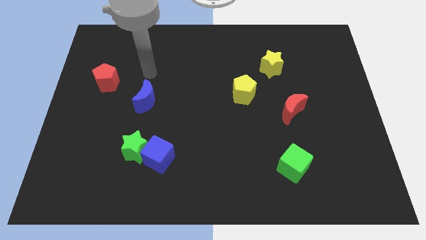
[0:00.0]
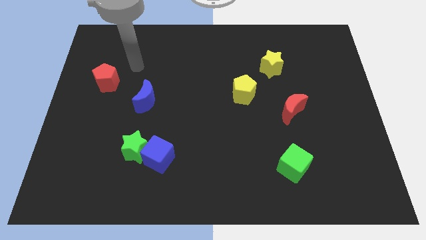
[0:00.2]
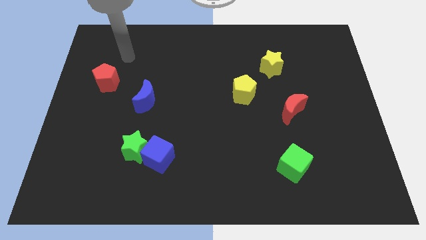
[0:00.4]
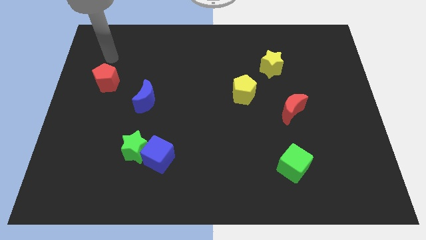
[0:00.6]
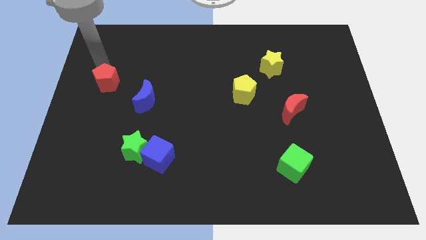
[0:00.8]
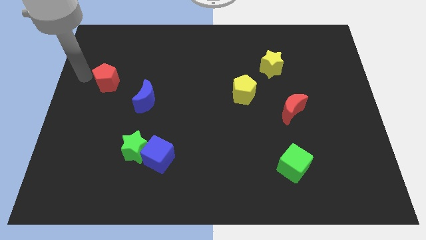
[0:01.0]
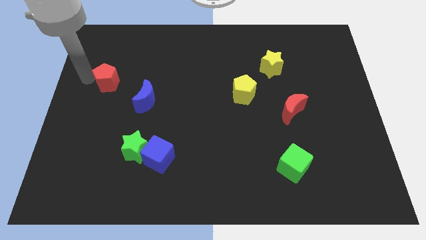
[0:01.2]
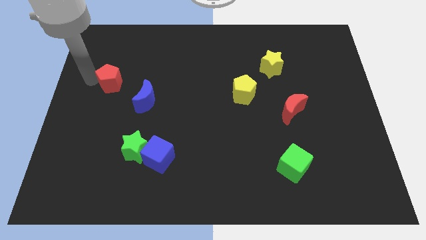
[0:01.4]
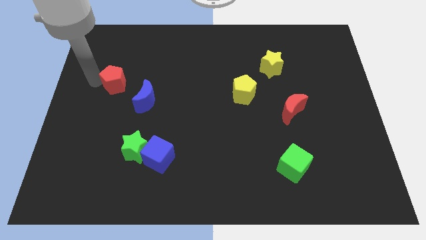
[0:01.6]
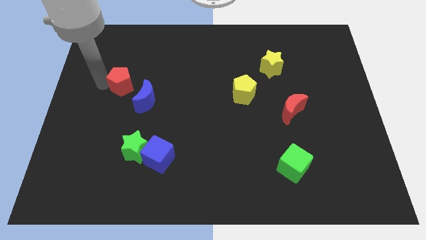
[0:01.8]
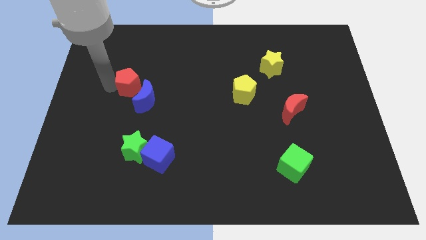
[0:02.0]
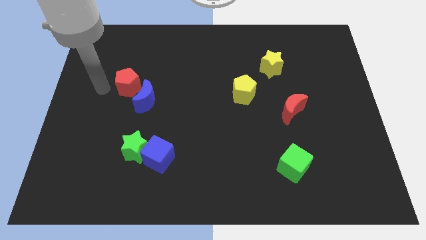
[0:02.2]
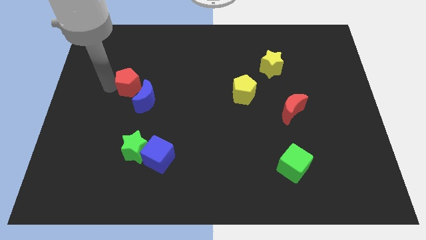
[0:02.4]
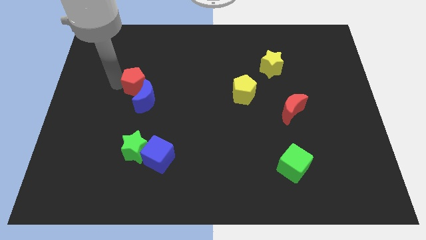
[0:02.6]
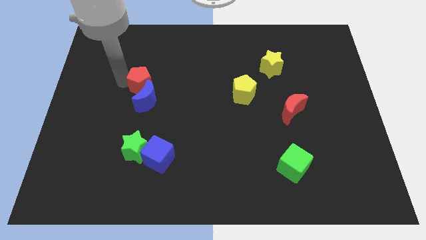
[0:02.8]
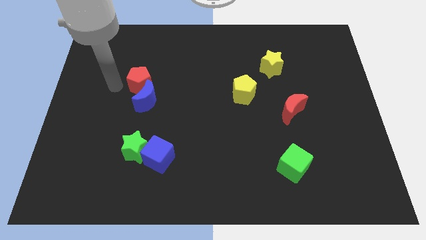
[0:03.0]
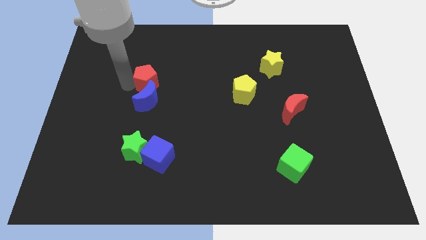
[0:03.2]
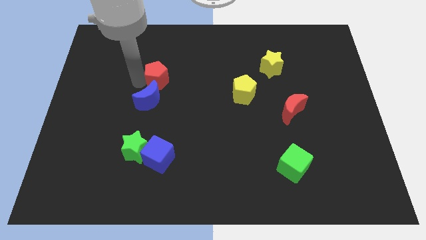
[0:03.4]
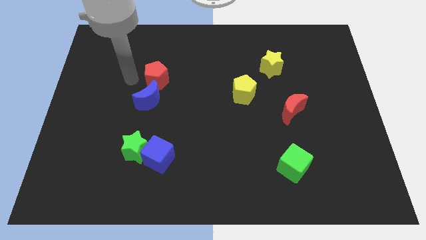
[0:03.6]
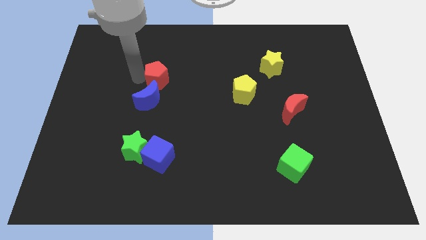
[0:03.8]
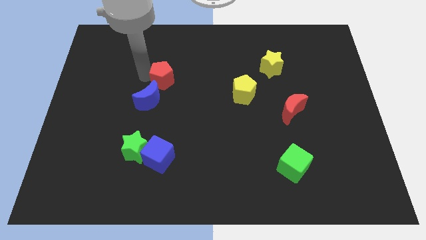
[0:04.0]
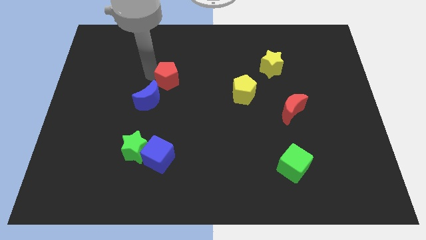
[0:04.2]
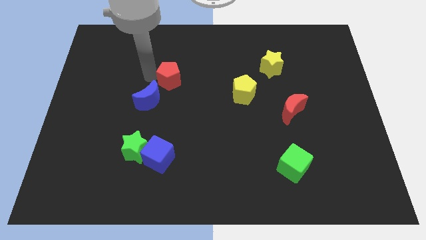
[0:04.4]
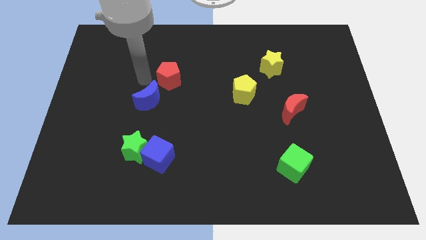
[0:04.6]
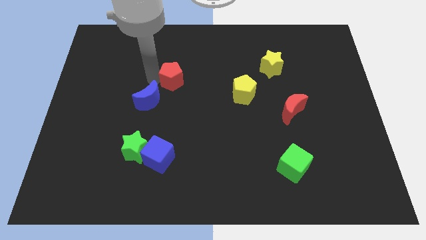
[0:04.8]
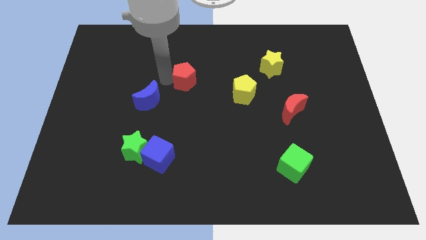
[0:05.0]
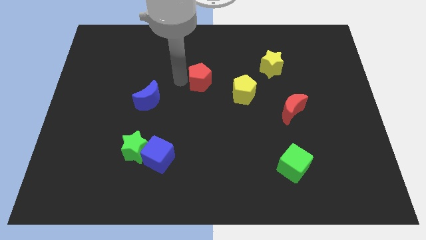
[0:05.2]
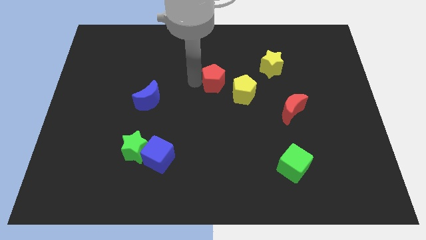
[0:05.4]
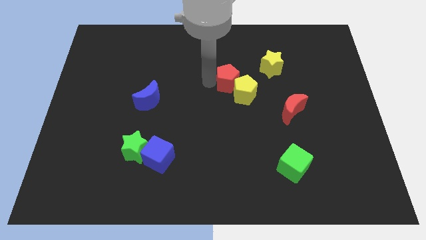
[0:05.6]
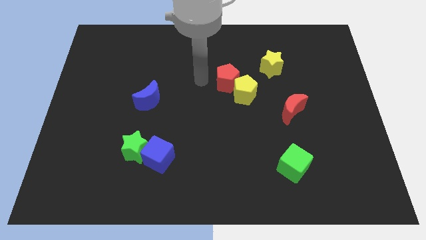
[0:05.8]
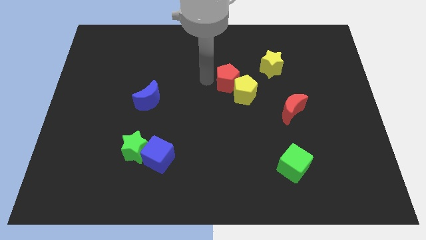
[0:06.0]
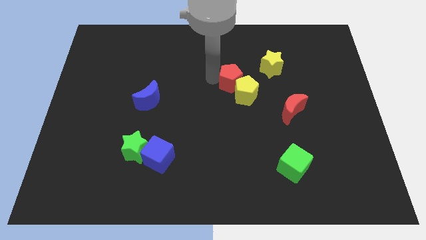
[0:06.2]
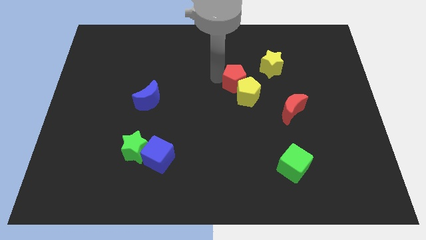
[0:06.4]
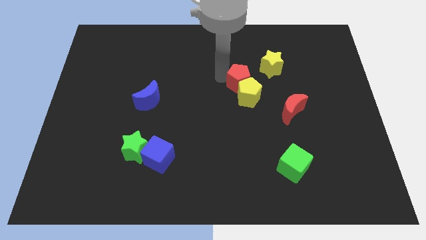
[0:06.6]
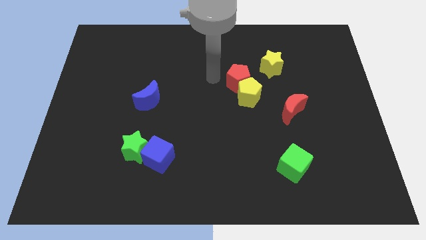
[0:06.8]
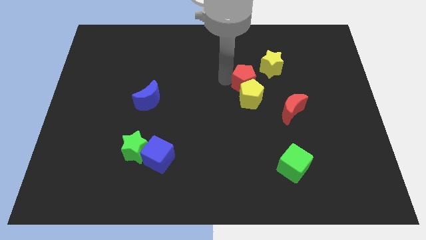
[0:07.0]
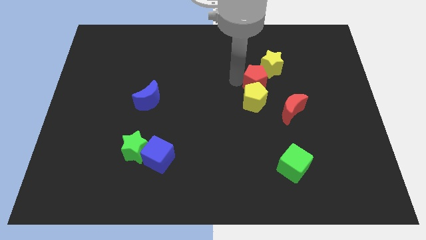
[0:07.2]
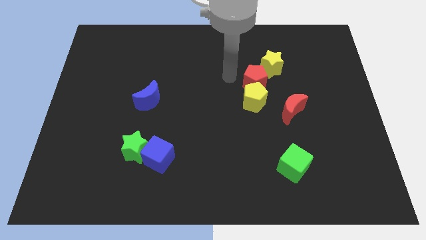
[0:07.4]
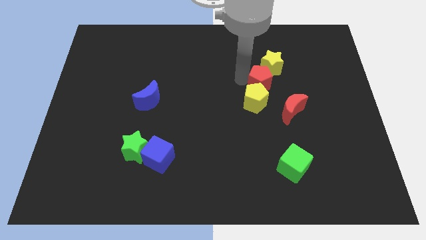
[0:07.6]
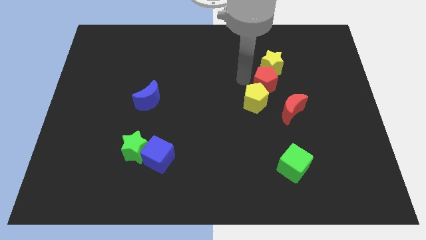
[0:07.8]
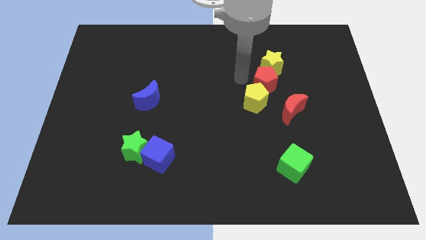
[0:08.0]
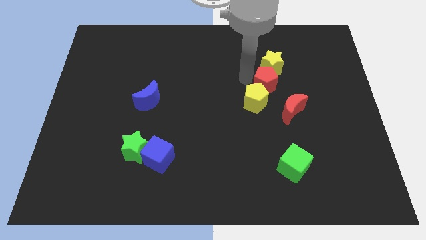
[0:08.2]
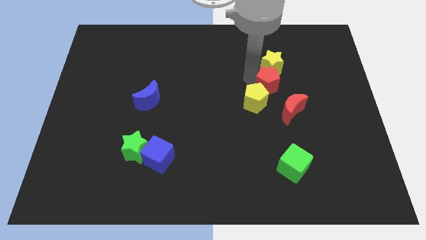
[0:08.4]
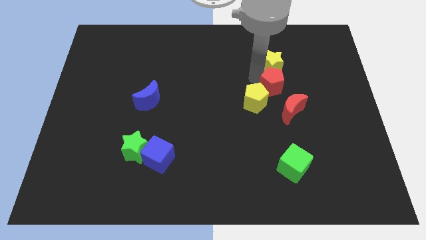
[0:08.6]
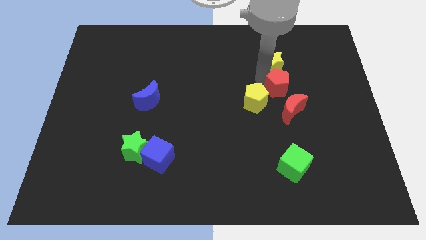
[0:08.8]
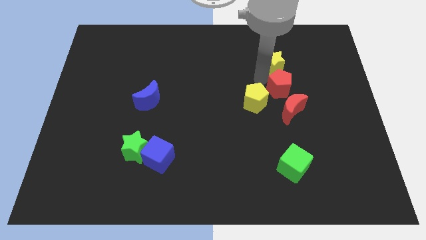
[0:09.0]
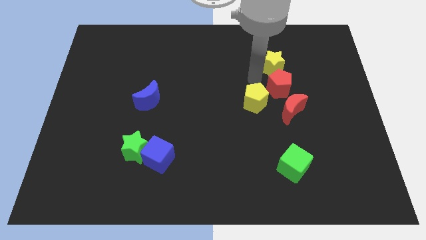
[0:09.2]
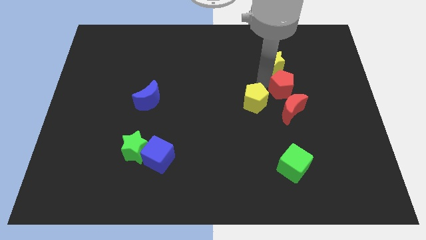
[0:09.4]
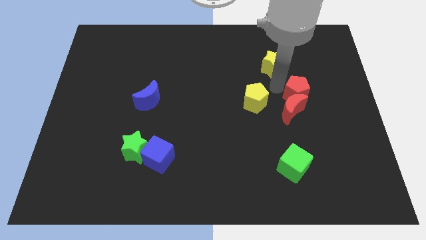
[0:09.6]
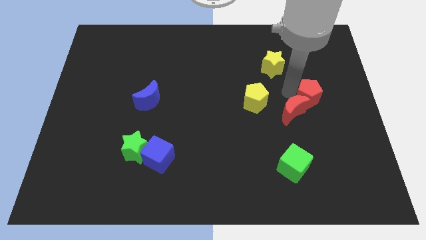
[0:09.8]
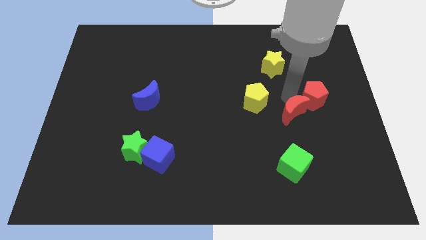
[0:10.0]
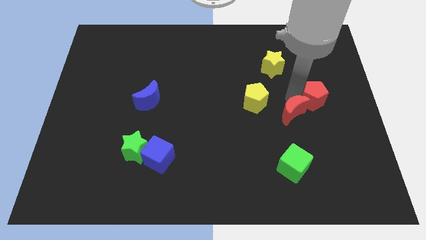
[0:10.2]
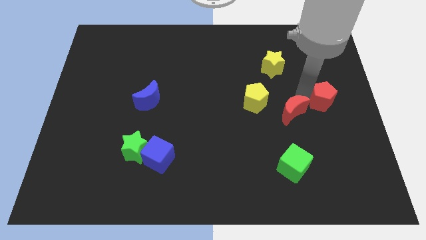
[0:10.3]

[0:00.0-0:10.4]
put the red pentagon to the right side of the board

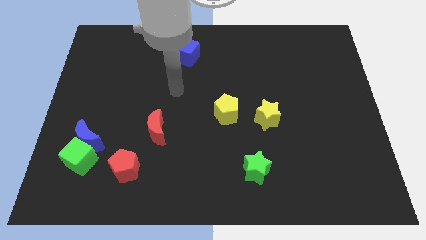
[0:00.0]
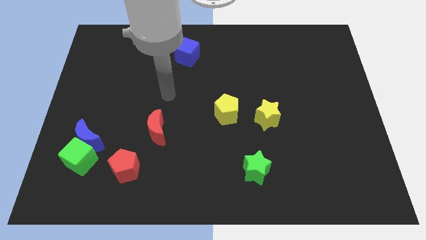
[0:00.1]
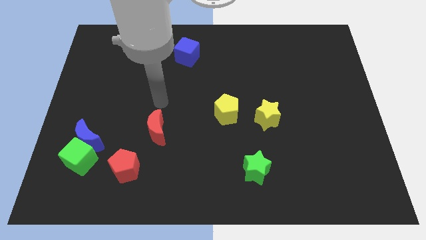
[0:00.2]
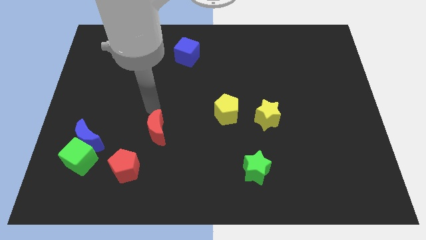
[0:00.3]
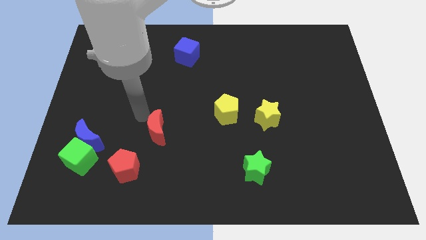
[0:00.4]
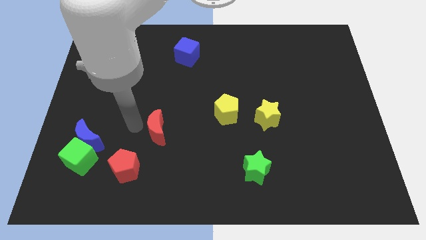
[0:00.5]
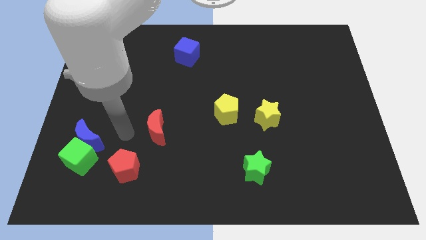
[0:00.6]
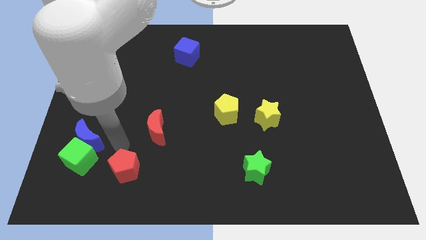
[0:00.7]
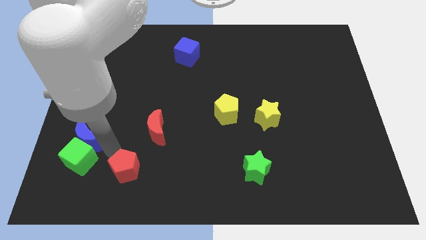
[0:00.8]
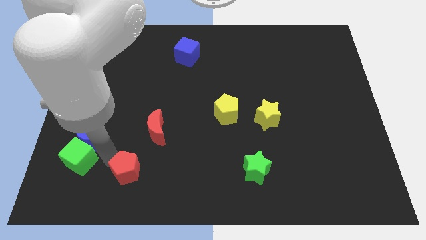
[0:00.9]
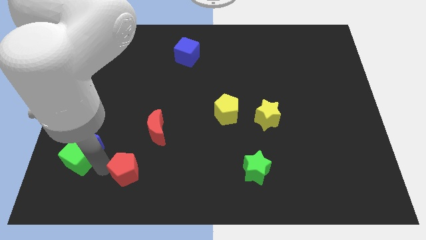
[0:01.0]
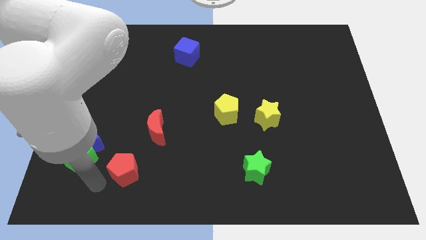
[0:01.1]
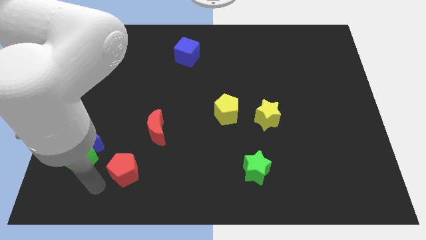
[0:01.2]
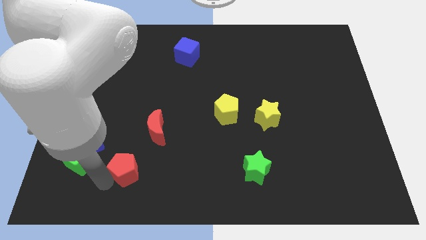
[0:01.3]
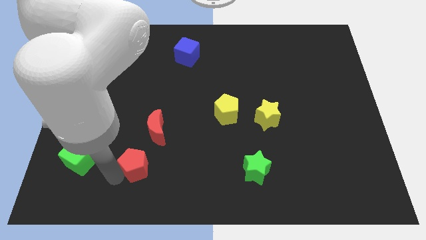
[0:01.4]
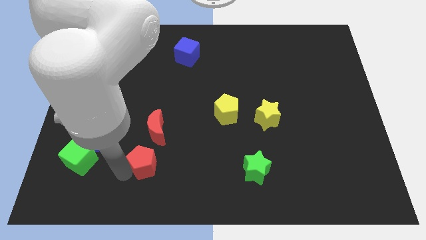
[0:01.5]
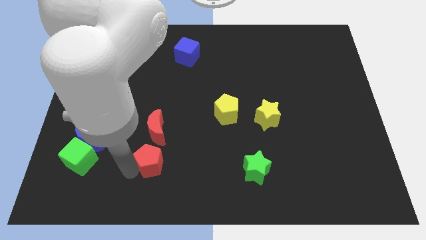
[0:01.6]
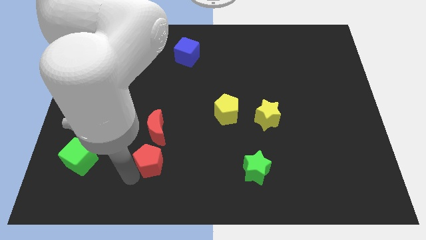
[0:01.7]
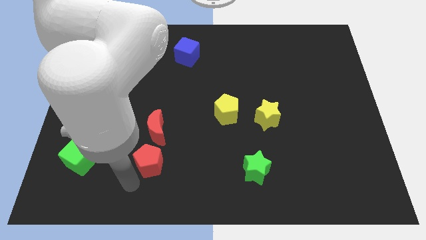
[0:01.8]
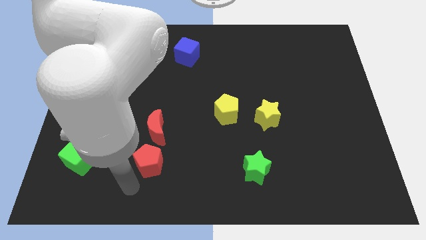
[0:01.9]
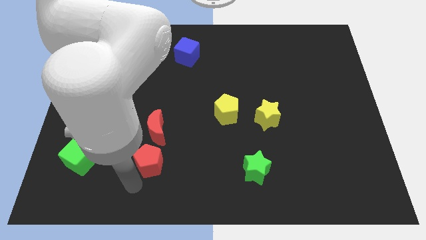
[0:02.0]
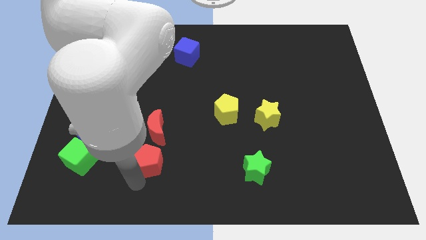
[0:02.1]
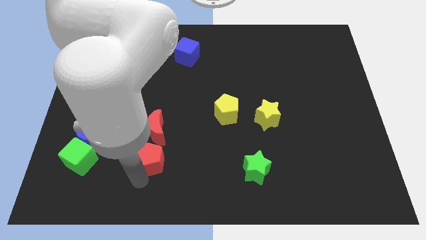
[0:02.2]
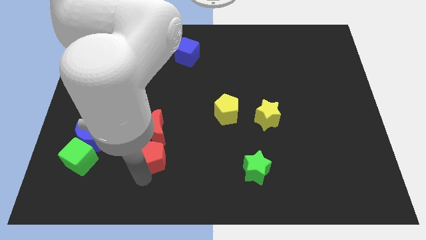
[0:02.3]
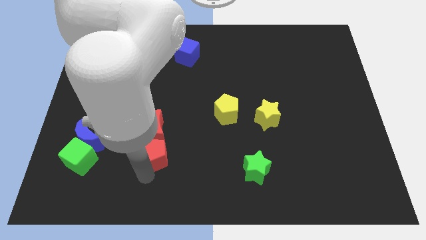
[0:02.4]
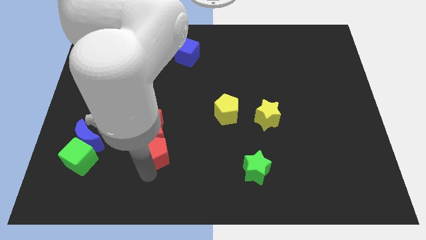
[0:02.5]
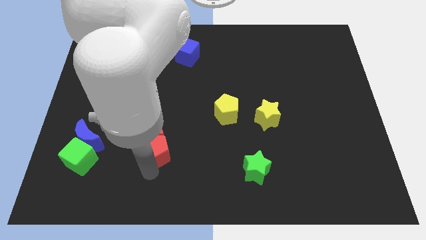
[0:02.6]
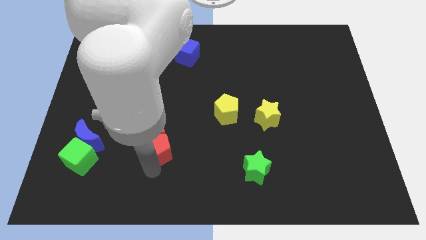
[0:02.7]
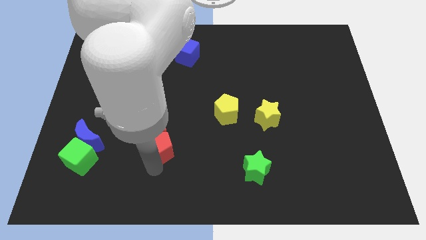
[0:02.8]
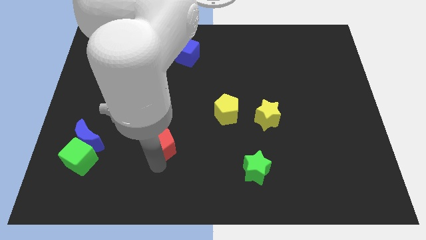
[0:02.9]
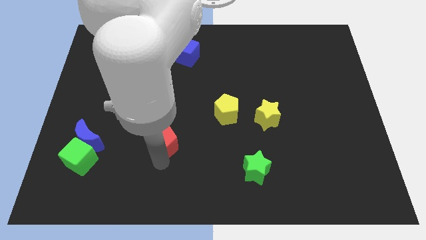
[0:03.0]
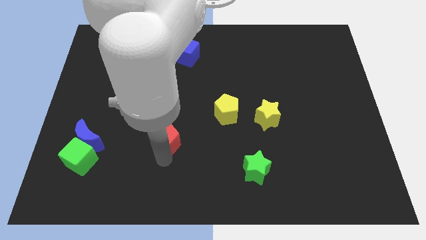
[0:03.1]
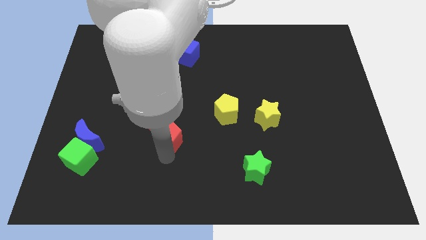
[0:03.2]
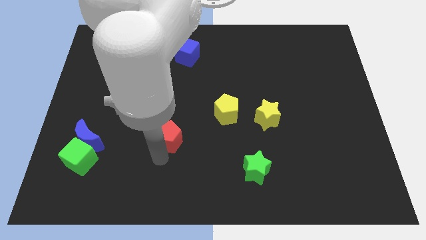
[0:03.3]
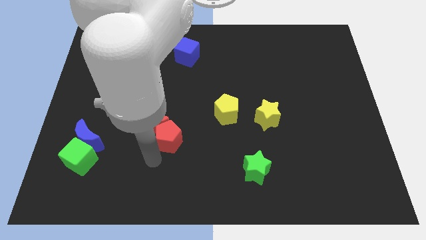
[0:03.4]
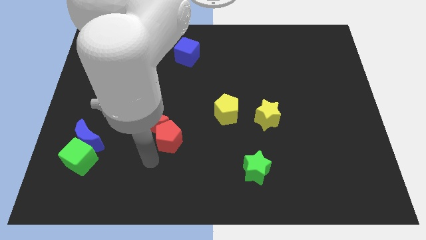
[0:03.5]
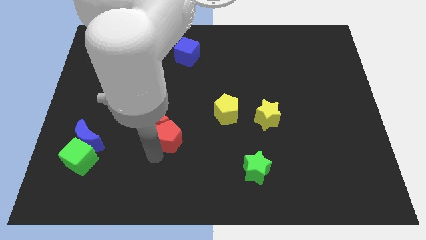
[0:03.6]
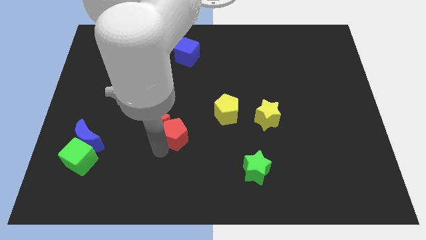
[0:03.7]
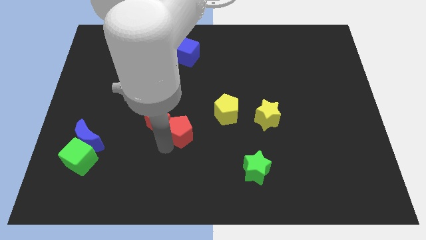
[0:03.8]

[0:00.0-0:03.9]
slide the red pentagon to the middle of the board
